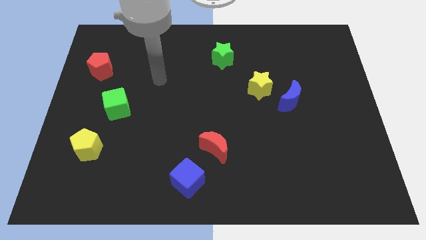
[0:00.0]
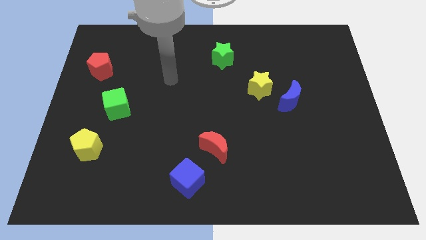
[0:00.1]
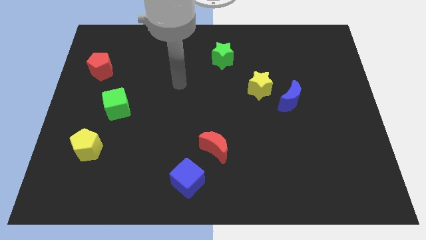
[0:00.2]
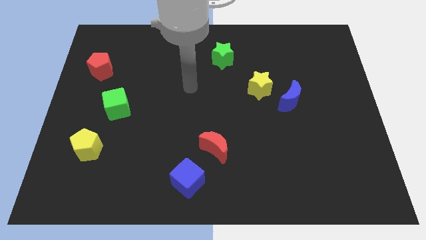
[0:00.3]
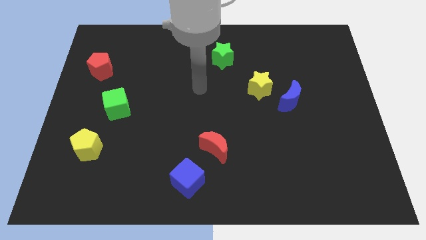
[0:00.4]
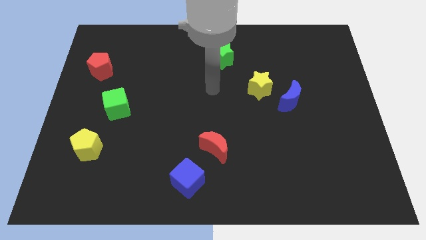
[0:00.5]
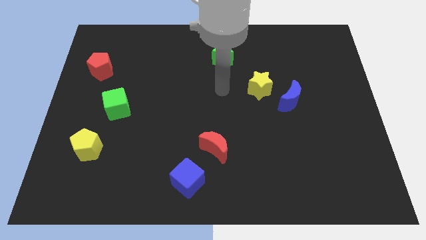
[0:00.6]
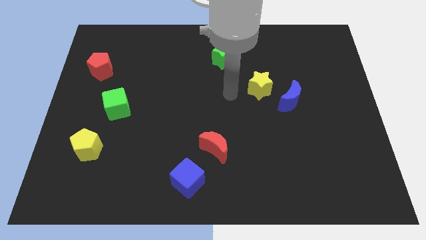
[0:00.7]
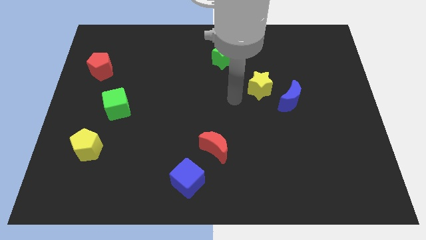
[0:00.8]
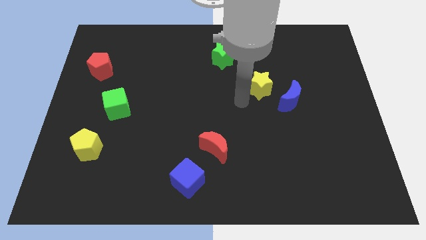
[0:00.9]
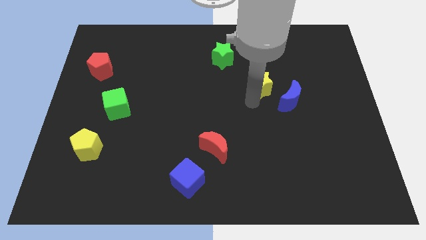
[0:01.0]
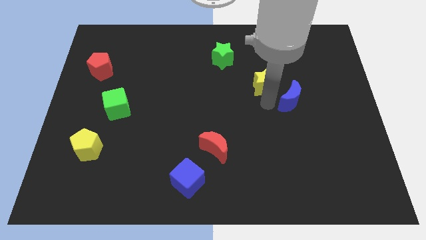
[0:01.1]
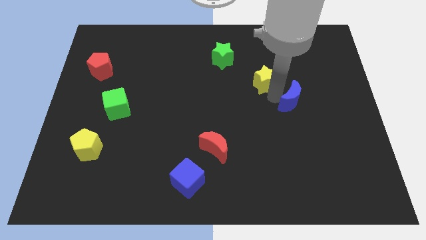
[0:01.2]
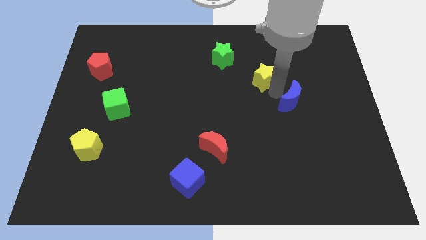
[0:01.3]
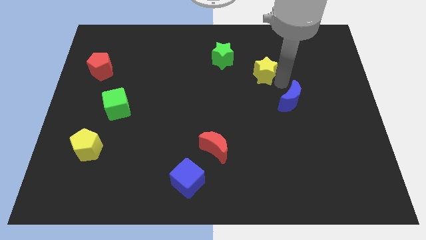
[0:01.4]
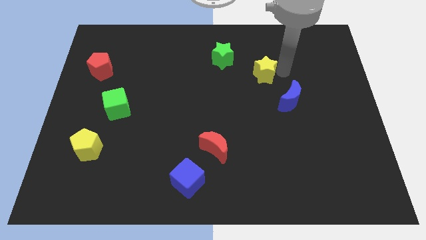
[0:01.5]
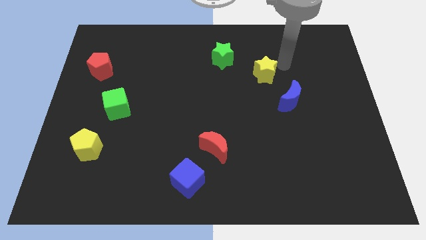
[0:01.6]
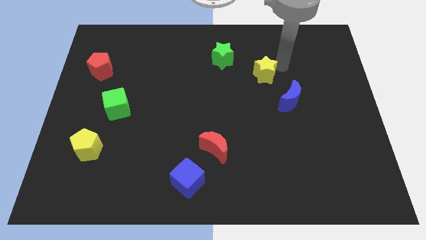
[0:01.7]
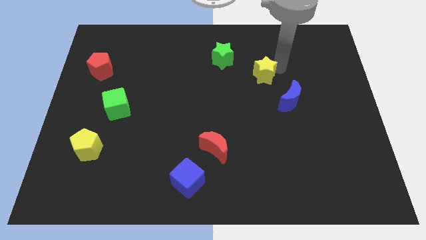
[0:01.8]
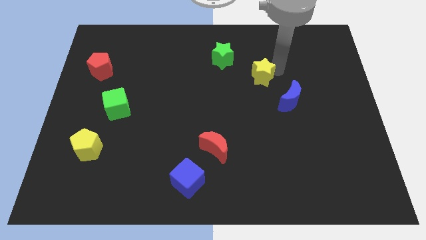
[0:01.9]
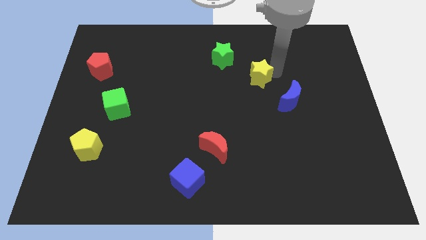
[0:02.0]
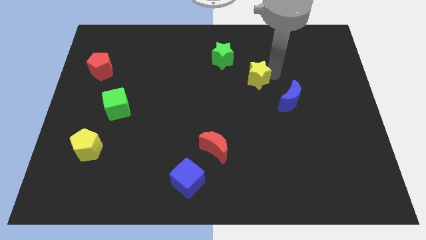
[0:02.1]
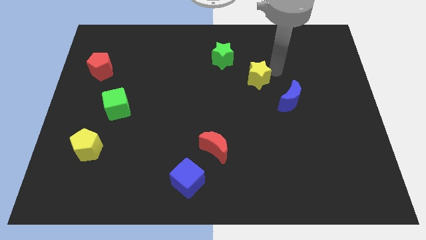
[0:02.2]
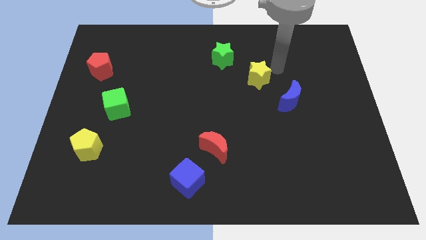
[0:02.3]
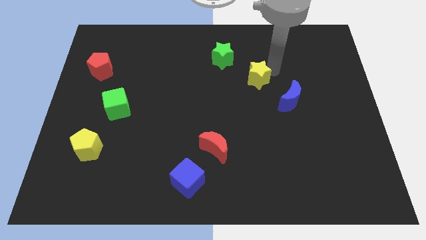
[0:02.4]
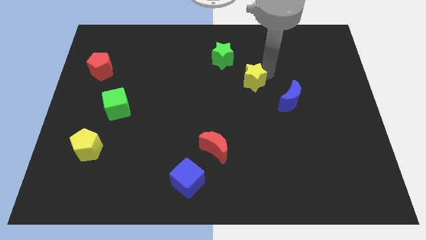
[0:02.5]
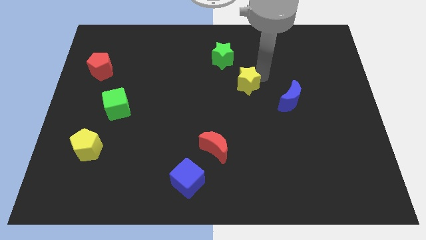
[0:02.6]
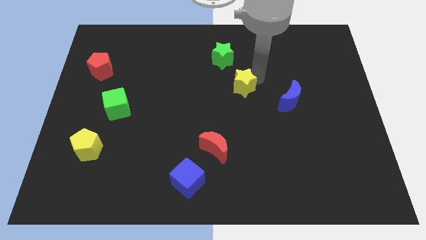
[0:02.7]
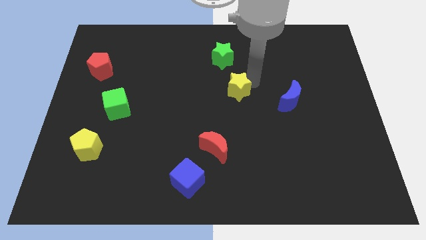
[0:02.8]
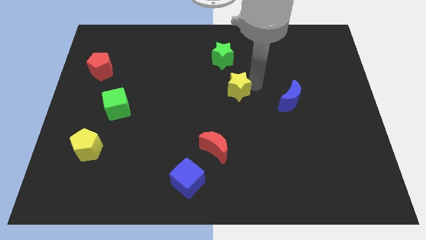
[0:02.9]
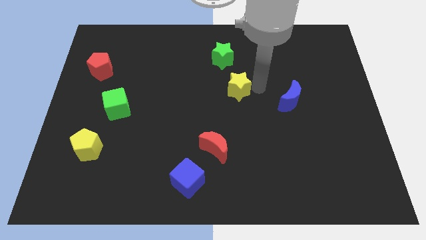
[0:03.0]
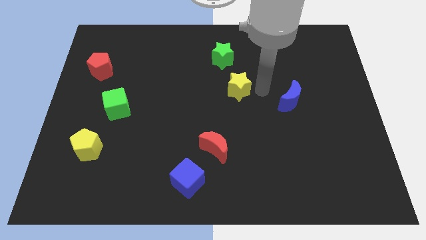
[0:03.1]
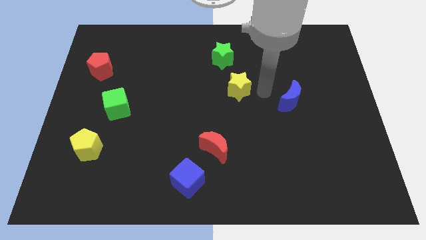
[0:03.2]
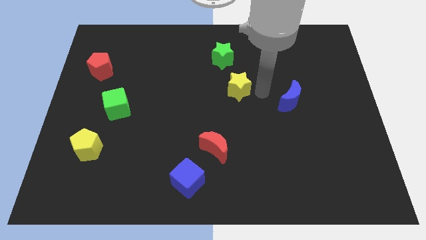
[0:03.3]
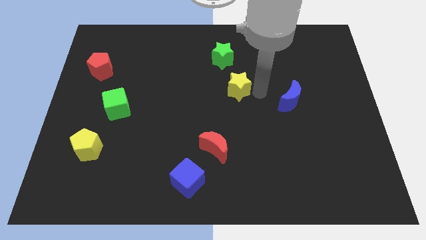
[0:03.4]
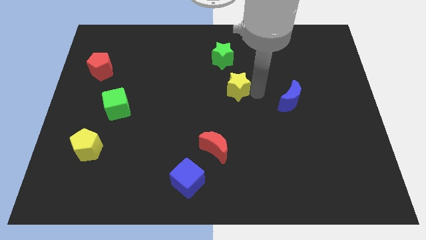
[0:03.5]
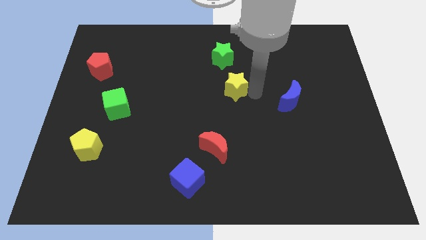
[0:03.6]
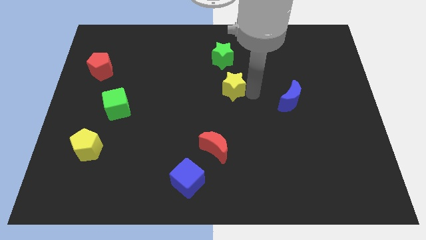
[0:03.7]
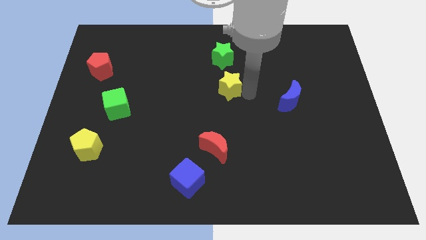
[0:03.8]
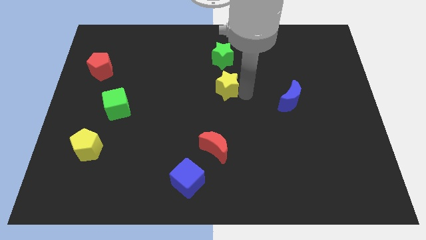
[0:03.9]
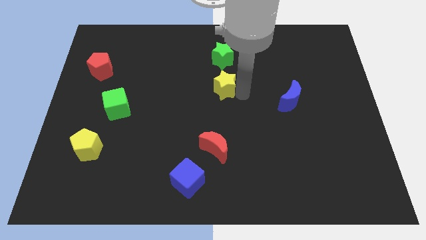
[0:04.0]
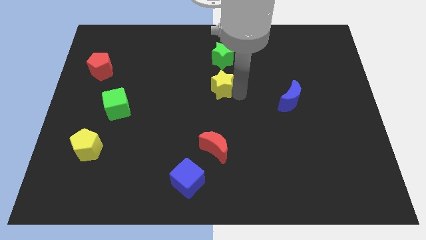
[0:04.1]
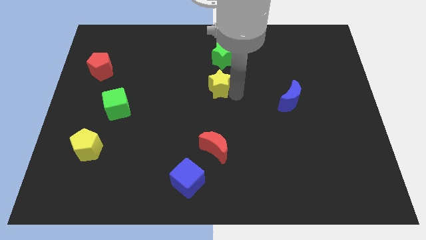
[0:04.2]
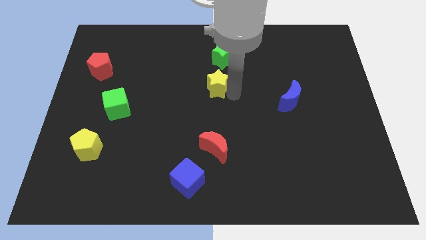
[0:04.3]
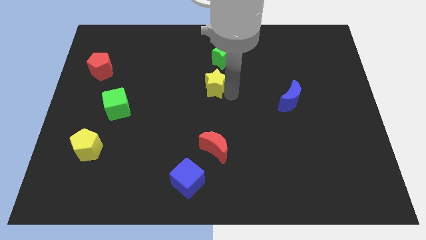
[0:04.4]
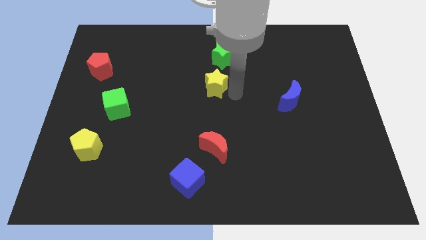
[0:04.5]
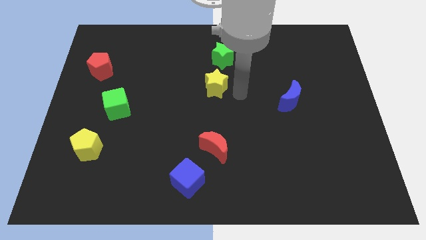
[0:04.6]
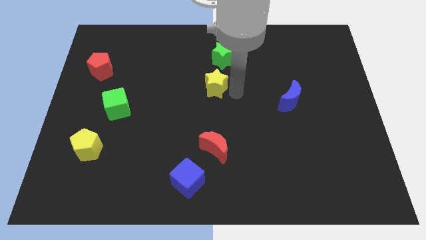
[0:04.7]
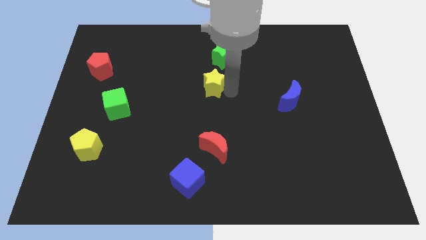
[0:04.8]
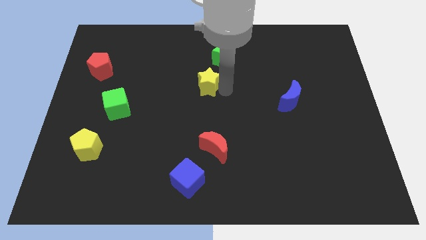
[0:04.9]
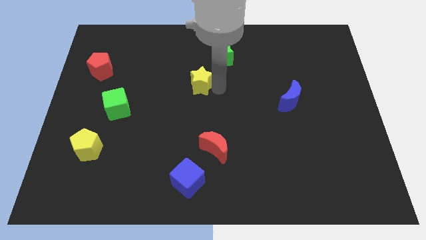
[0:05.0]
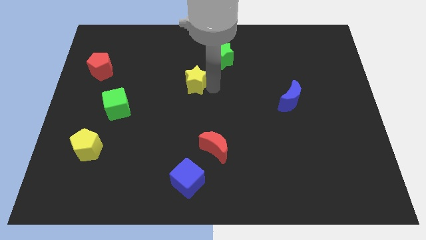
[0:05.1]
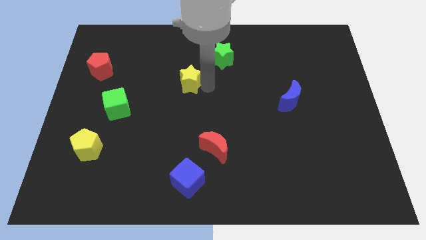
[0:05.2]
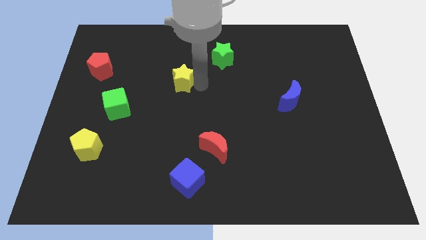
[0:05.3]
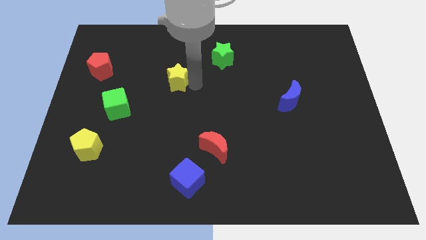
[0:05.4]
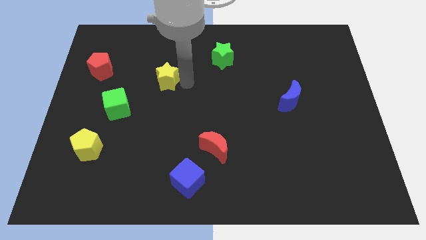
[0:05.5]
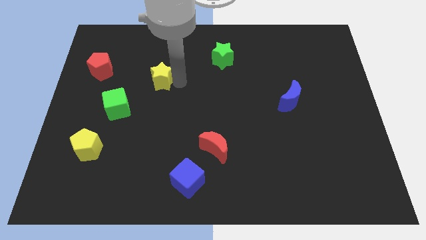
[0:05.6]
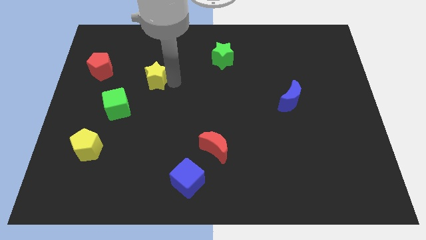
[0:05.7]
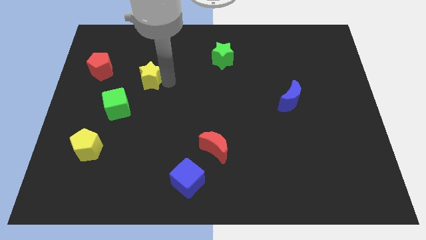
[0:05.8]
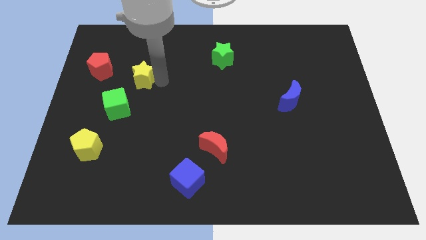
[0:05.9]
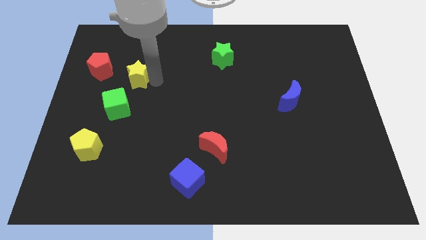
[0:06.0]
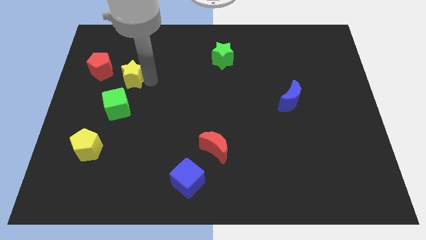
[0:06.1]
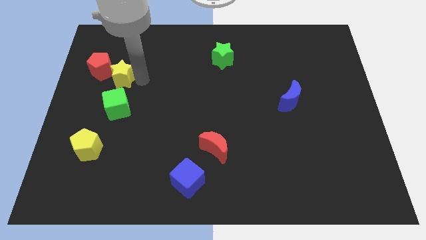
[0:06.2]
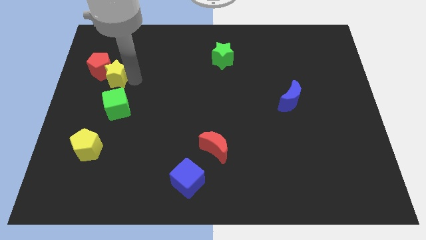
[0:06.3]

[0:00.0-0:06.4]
push the yellow star next to the red pentagon

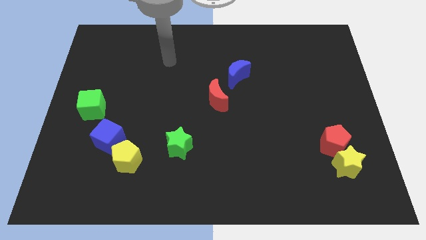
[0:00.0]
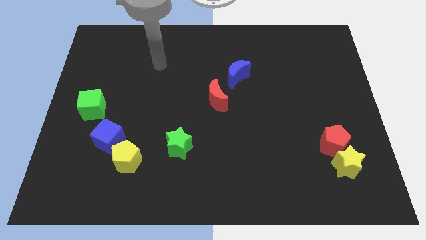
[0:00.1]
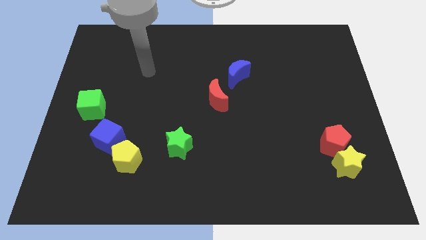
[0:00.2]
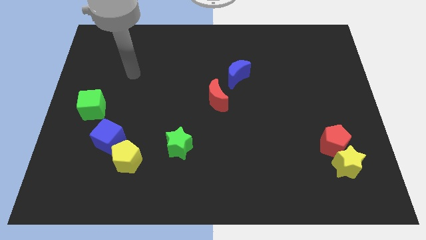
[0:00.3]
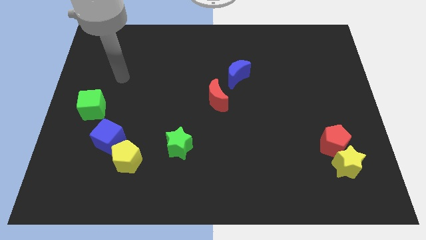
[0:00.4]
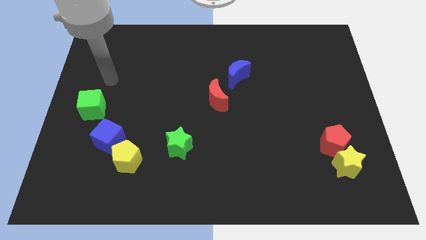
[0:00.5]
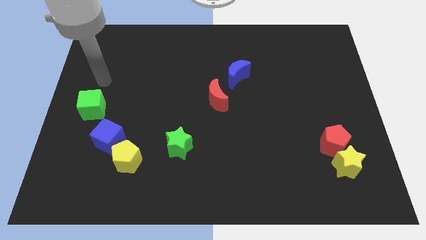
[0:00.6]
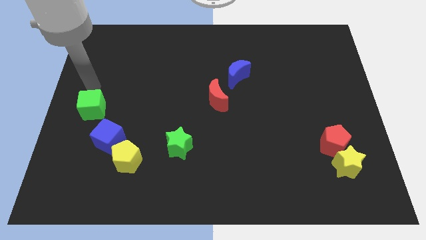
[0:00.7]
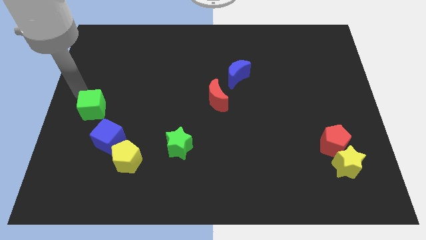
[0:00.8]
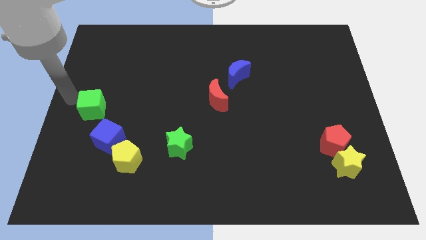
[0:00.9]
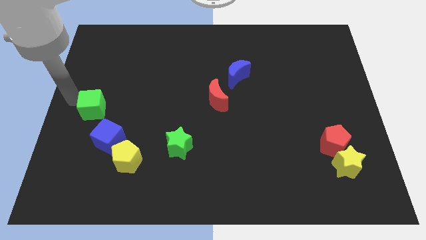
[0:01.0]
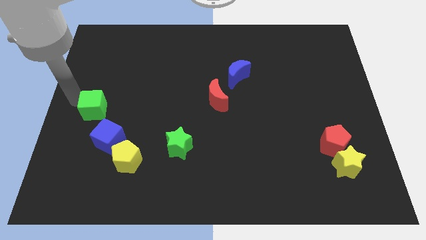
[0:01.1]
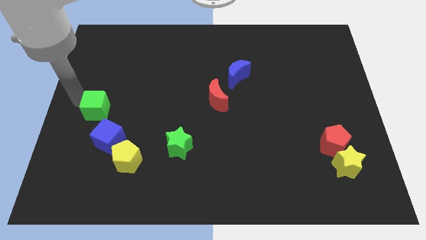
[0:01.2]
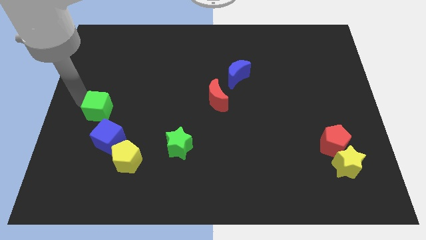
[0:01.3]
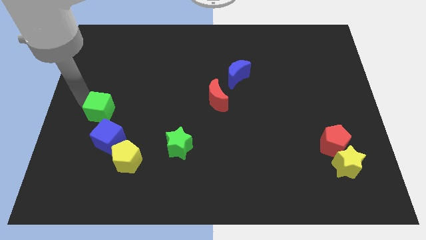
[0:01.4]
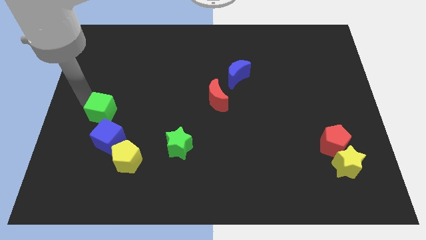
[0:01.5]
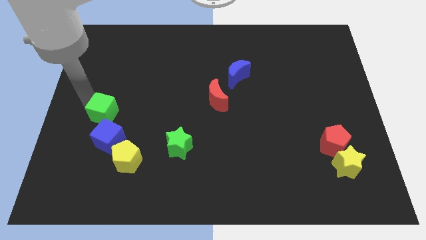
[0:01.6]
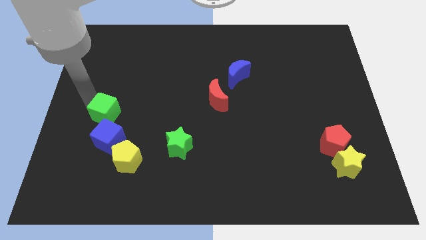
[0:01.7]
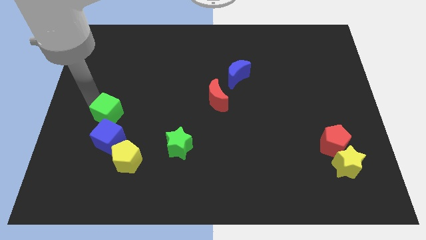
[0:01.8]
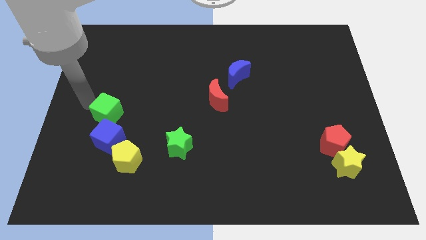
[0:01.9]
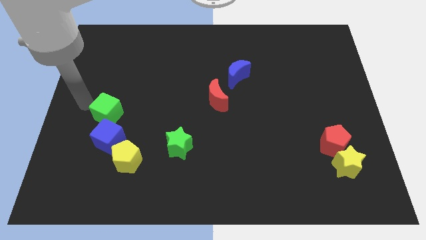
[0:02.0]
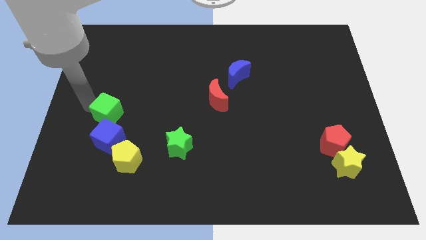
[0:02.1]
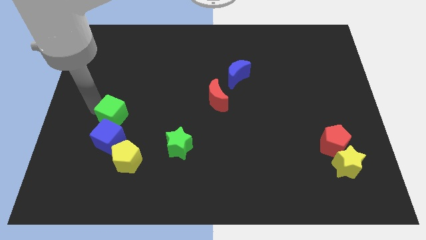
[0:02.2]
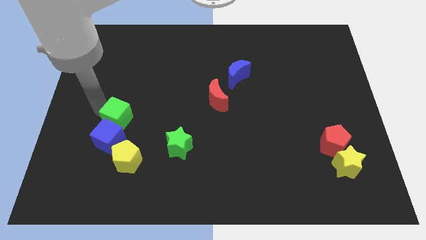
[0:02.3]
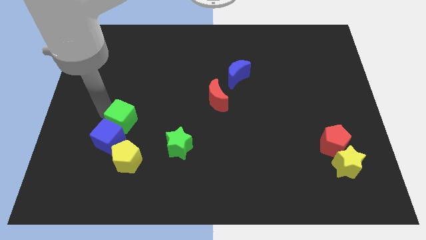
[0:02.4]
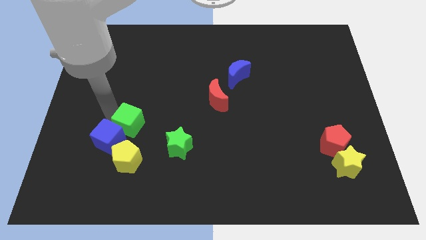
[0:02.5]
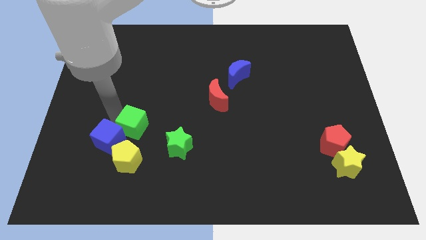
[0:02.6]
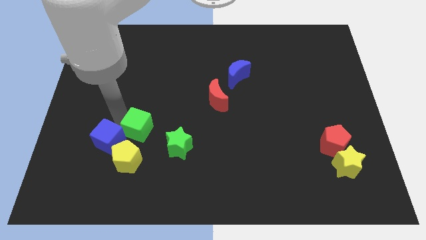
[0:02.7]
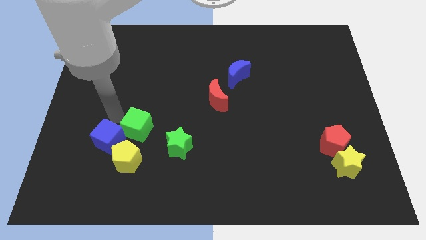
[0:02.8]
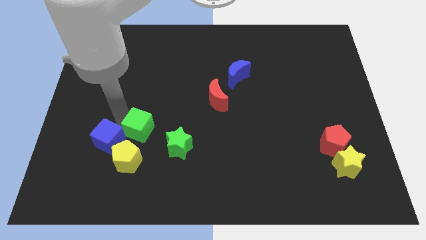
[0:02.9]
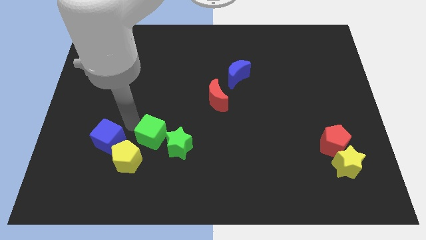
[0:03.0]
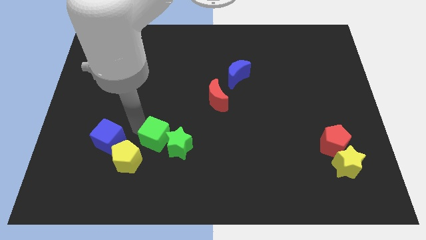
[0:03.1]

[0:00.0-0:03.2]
slide the green cube to the green star
